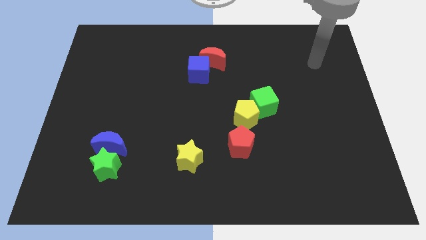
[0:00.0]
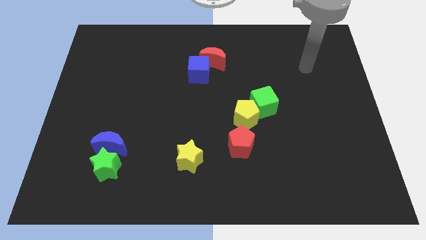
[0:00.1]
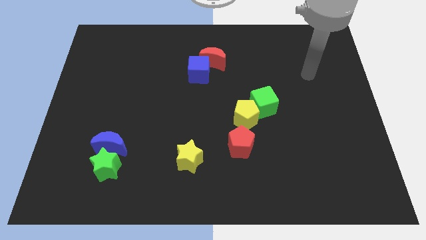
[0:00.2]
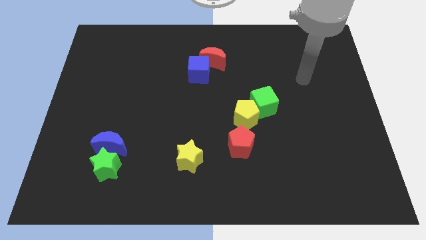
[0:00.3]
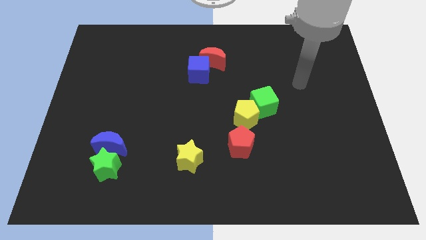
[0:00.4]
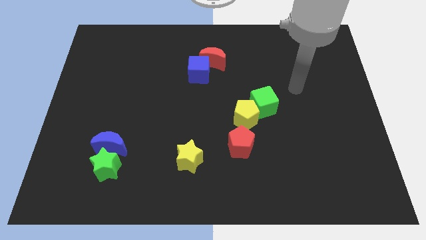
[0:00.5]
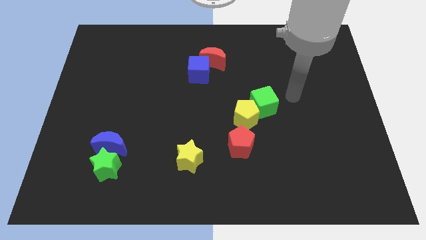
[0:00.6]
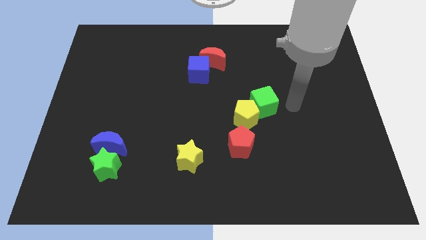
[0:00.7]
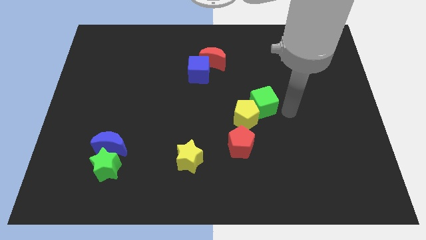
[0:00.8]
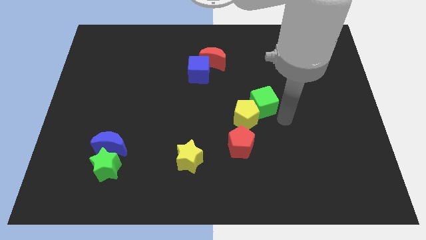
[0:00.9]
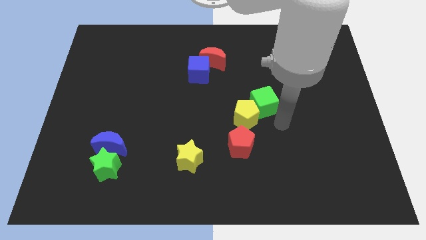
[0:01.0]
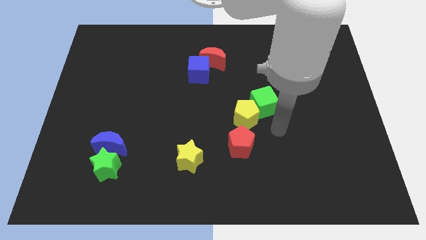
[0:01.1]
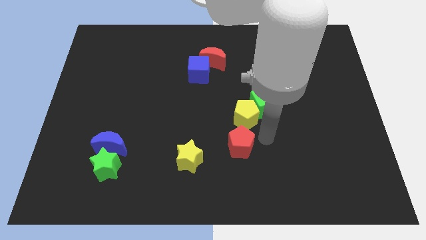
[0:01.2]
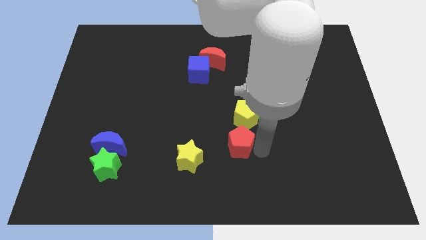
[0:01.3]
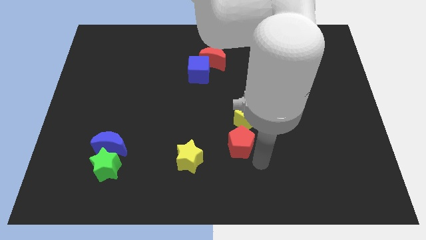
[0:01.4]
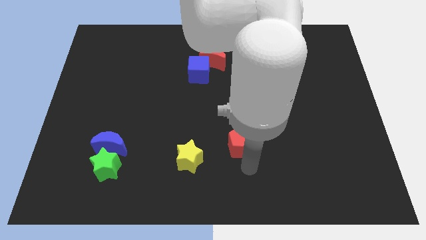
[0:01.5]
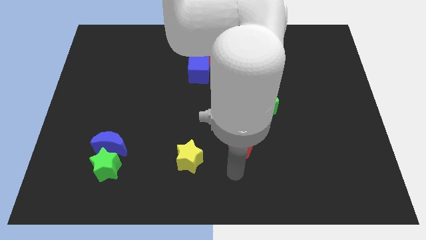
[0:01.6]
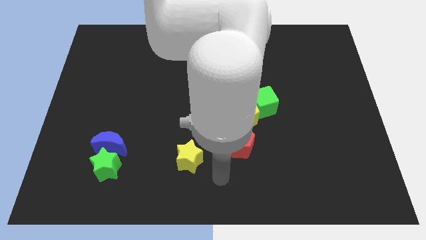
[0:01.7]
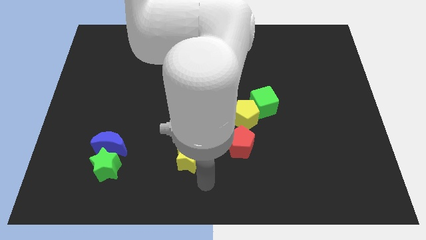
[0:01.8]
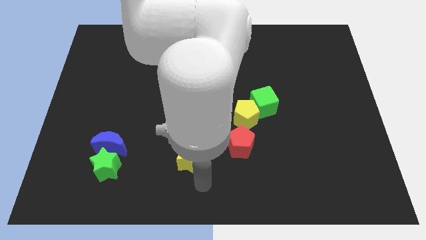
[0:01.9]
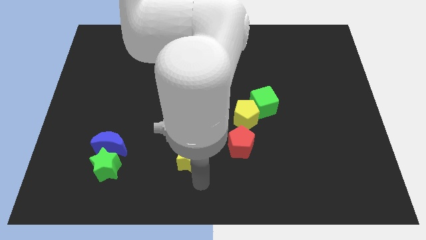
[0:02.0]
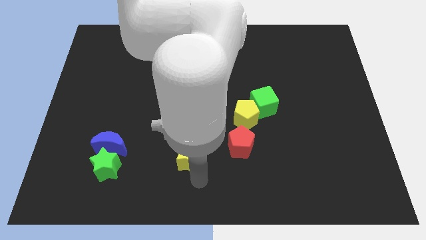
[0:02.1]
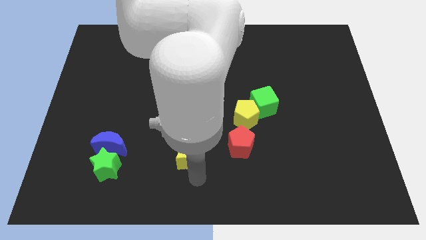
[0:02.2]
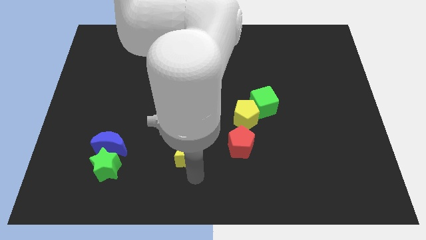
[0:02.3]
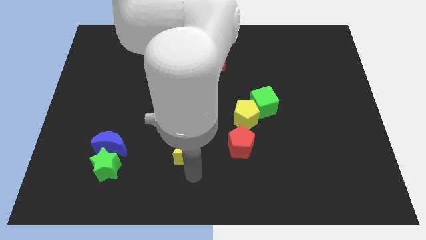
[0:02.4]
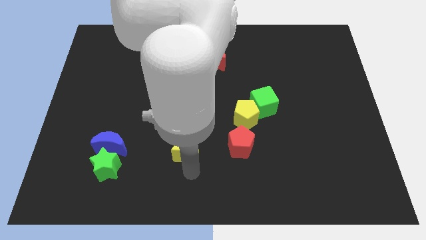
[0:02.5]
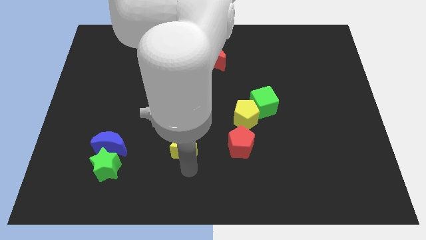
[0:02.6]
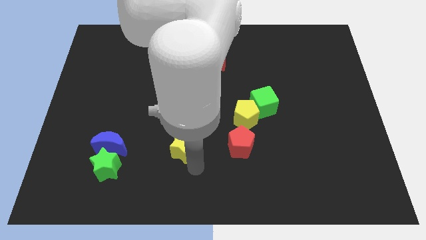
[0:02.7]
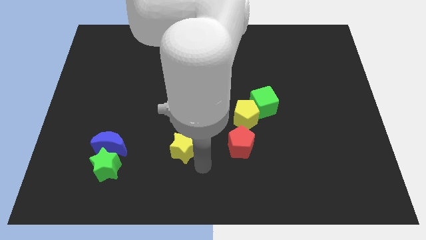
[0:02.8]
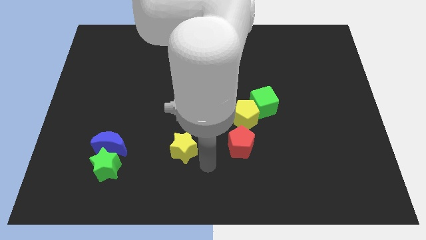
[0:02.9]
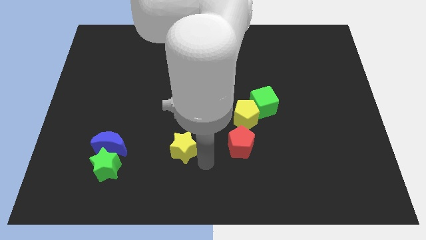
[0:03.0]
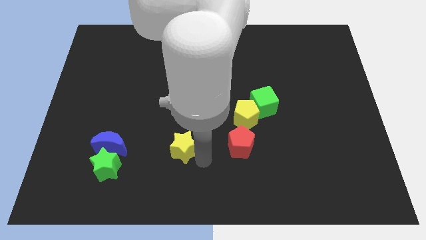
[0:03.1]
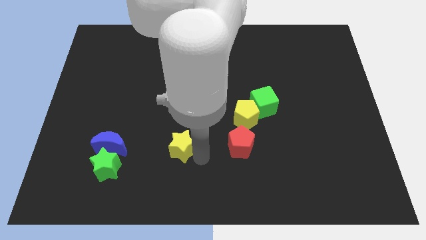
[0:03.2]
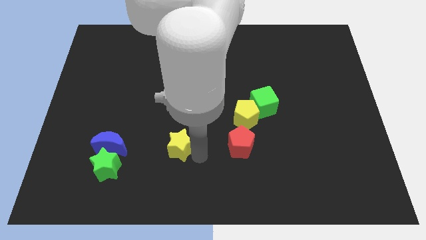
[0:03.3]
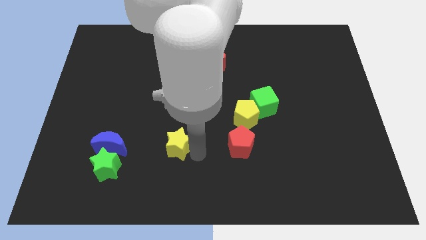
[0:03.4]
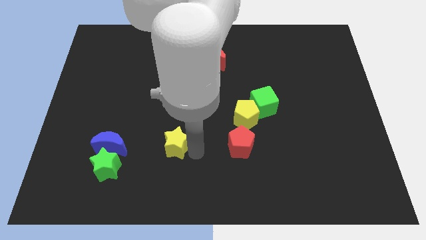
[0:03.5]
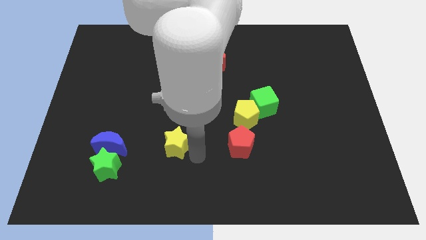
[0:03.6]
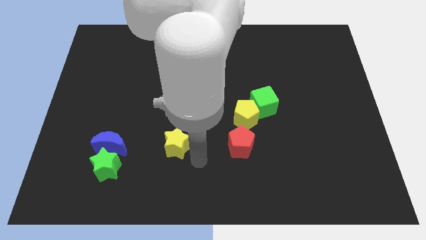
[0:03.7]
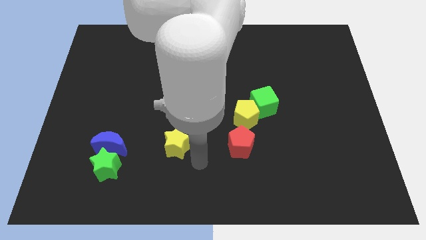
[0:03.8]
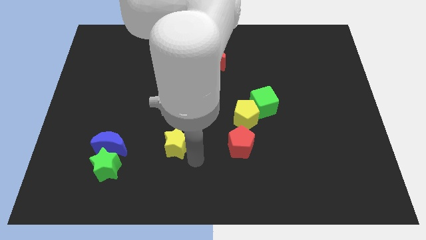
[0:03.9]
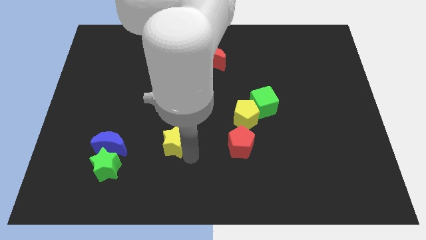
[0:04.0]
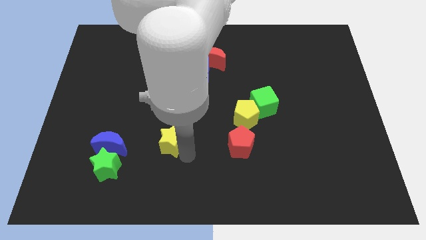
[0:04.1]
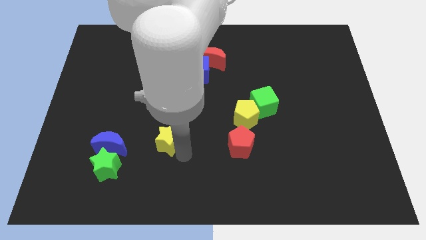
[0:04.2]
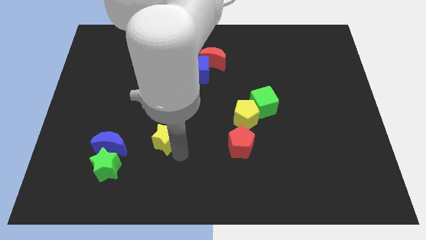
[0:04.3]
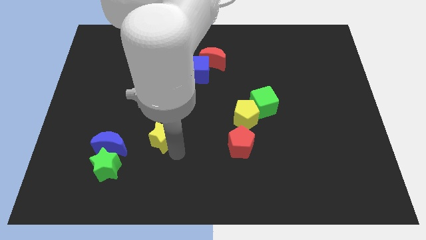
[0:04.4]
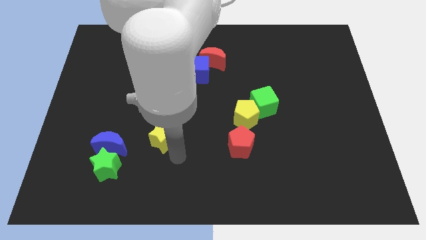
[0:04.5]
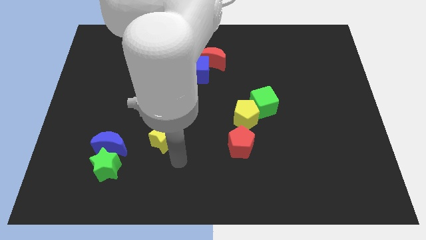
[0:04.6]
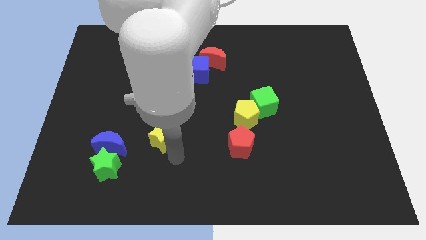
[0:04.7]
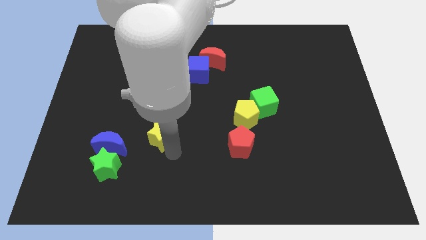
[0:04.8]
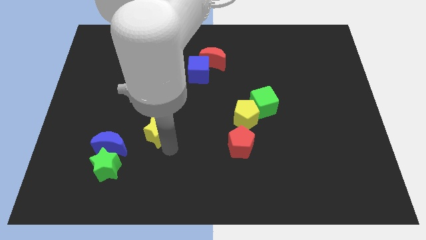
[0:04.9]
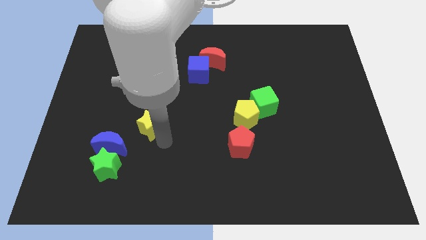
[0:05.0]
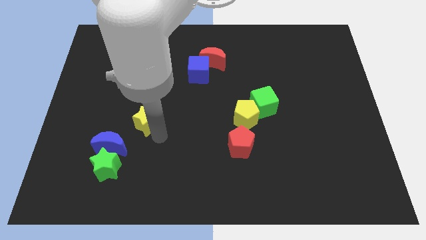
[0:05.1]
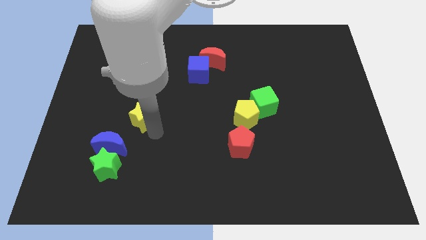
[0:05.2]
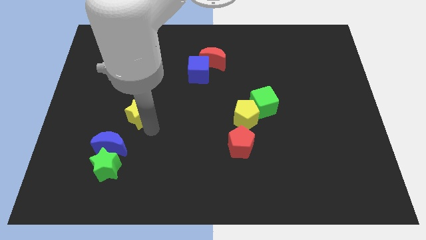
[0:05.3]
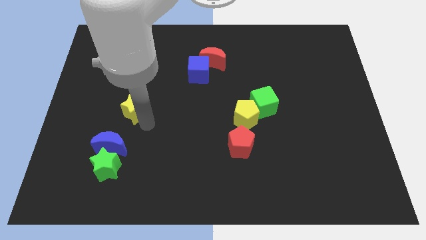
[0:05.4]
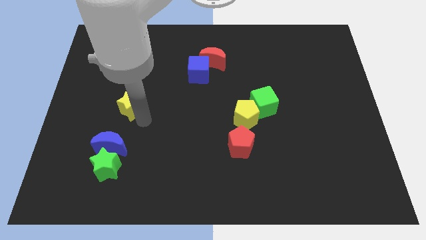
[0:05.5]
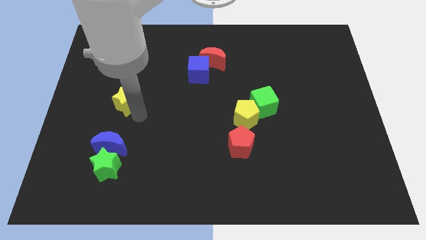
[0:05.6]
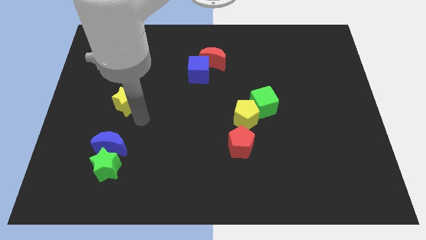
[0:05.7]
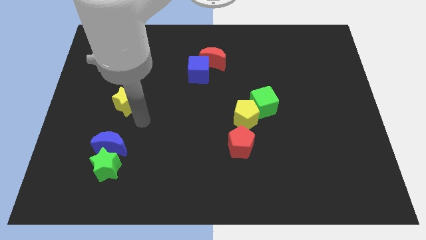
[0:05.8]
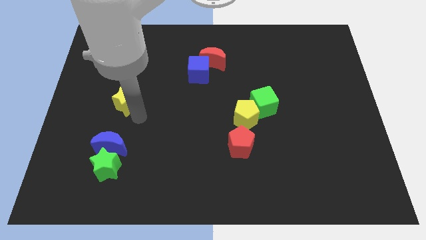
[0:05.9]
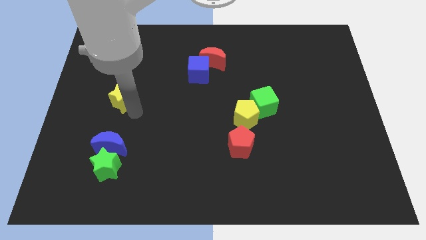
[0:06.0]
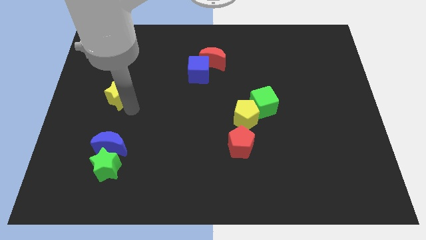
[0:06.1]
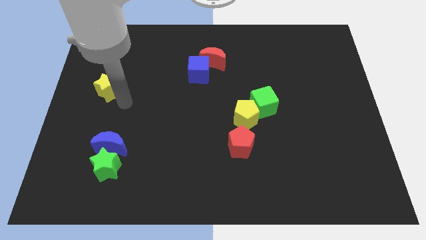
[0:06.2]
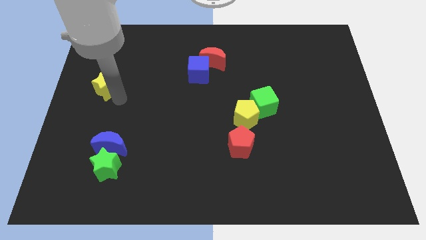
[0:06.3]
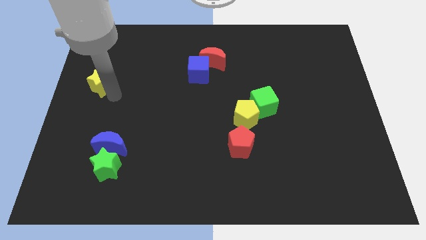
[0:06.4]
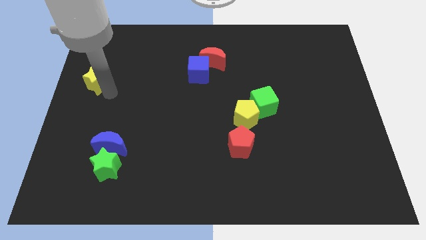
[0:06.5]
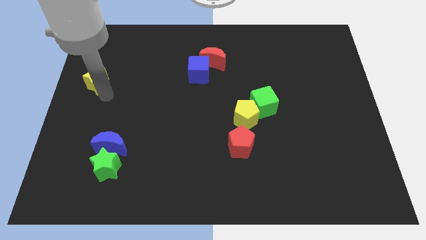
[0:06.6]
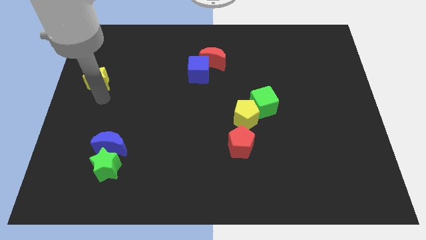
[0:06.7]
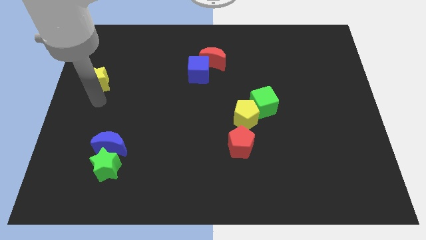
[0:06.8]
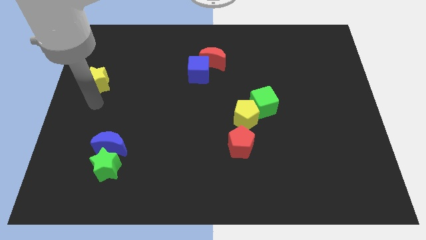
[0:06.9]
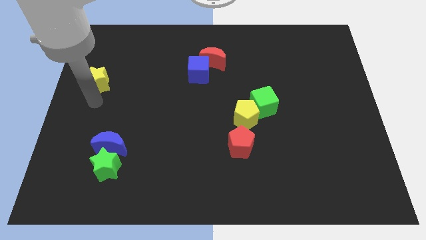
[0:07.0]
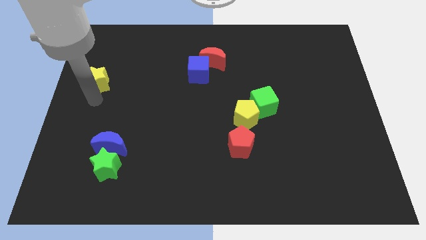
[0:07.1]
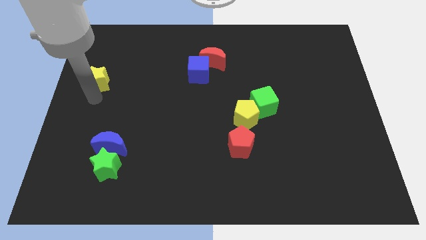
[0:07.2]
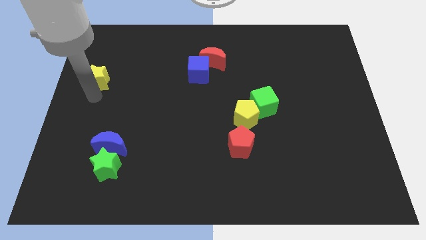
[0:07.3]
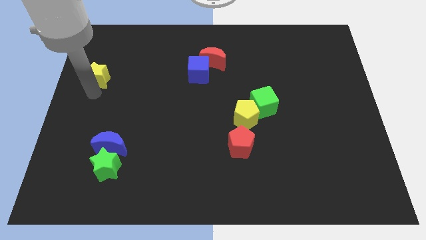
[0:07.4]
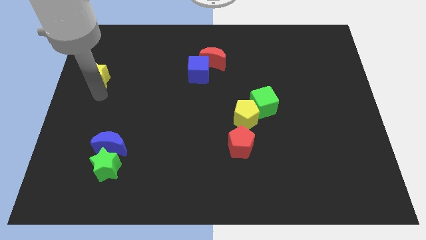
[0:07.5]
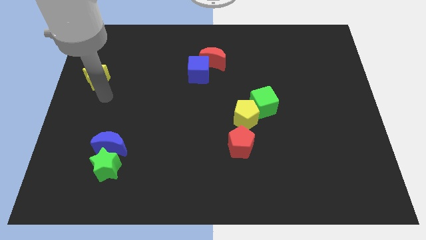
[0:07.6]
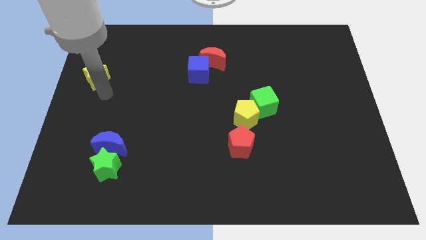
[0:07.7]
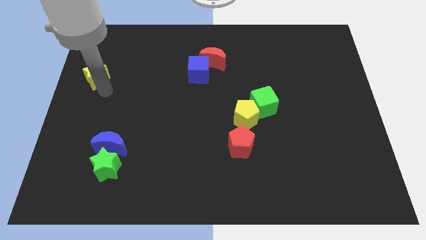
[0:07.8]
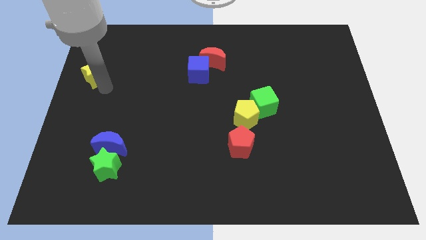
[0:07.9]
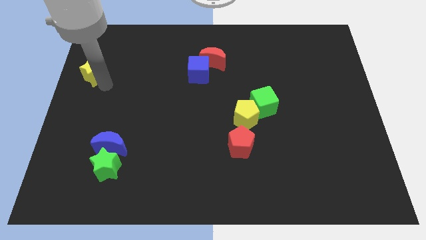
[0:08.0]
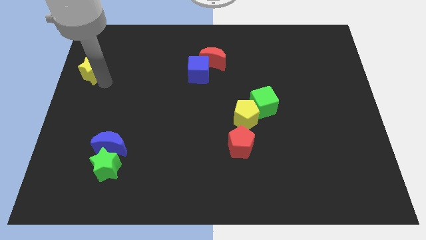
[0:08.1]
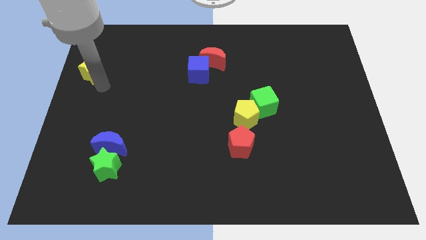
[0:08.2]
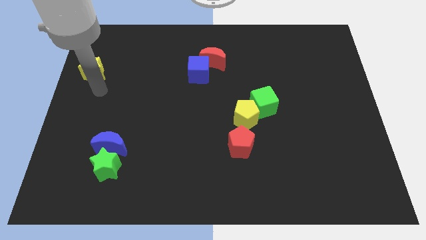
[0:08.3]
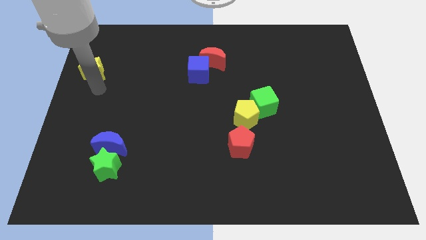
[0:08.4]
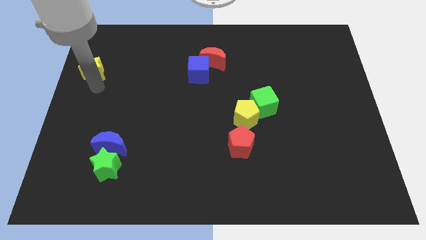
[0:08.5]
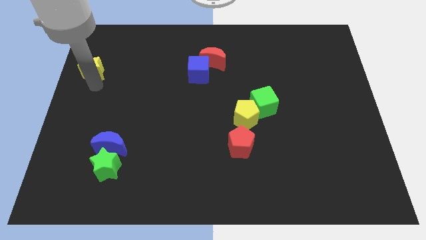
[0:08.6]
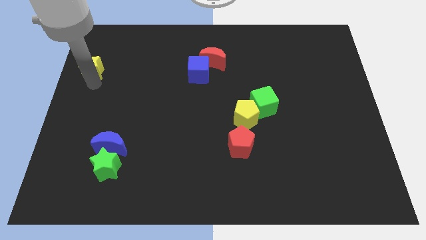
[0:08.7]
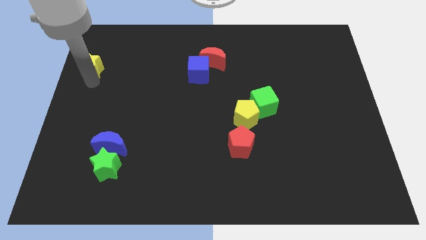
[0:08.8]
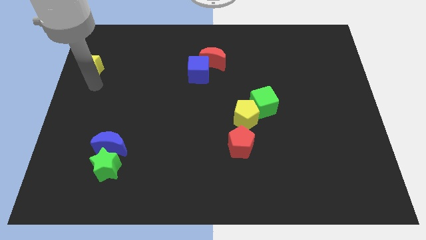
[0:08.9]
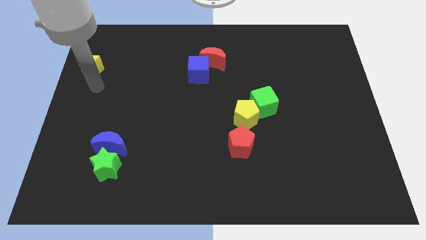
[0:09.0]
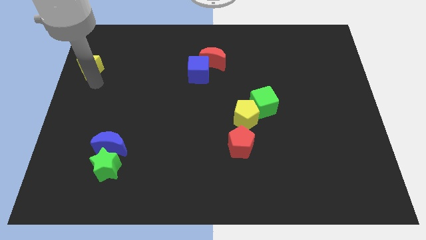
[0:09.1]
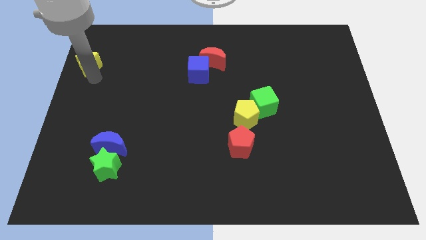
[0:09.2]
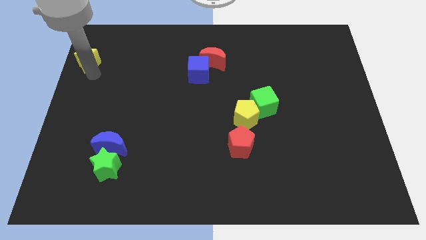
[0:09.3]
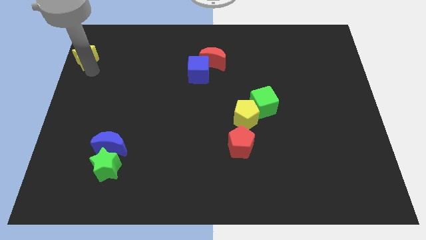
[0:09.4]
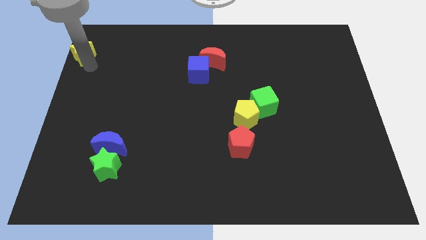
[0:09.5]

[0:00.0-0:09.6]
put the yellow star to the top left corner
